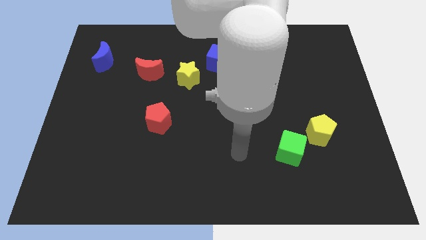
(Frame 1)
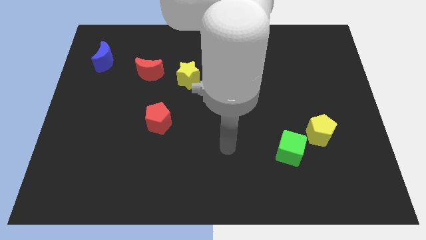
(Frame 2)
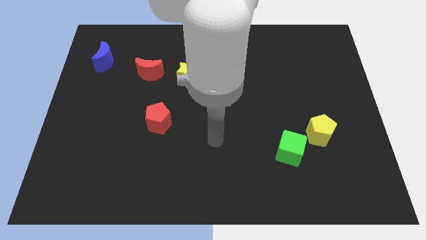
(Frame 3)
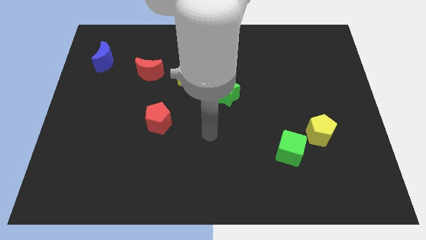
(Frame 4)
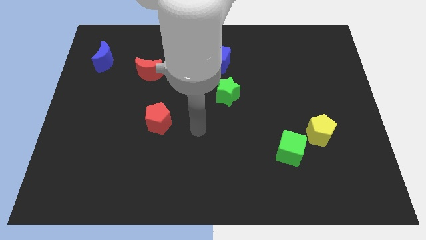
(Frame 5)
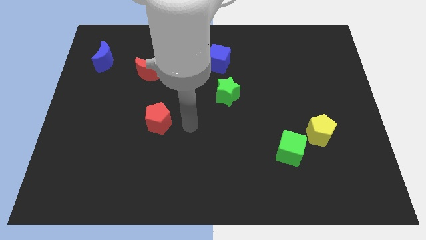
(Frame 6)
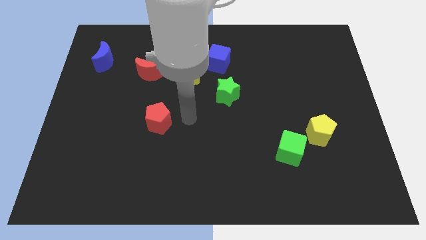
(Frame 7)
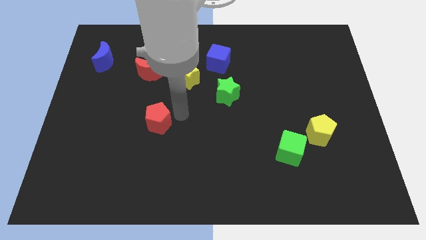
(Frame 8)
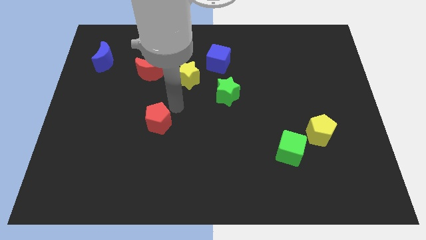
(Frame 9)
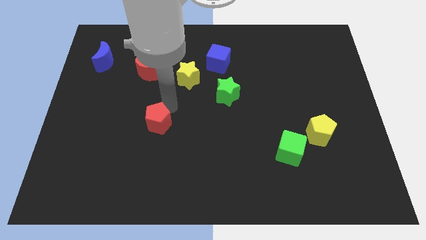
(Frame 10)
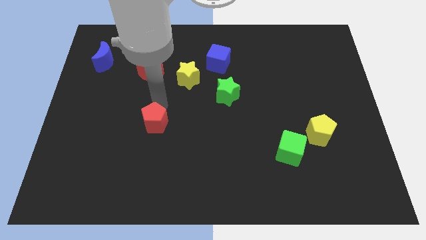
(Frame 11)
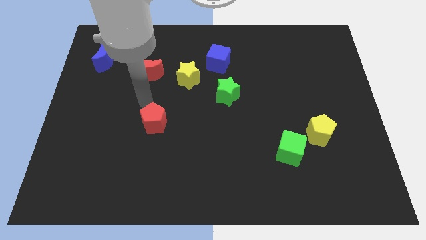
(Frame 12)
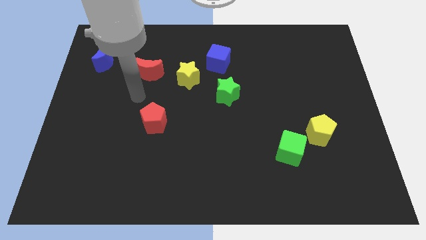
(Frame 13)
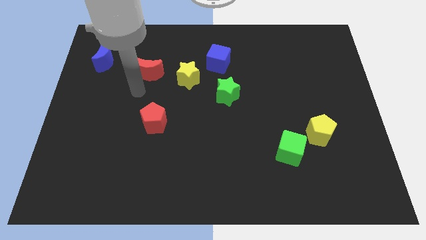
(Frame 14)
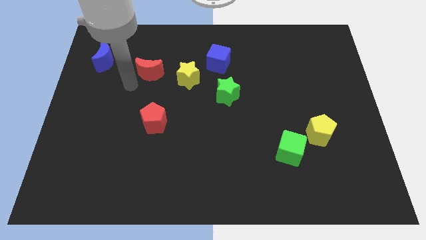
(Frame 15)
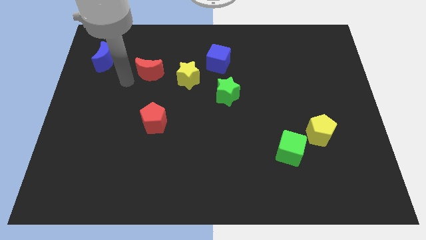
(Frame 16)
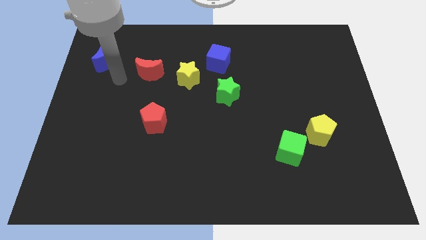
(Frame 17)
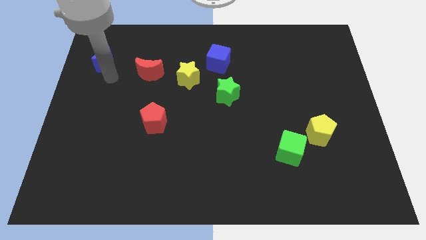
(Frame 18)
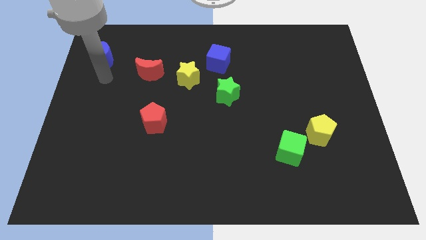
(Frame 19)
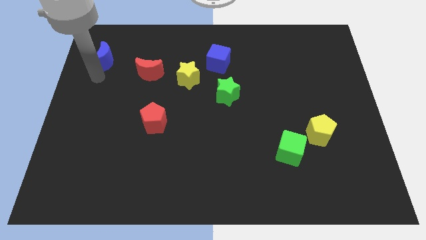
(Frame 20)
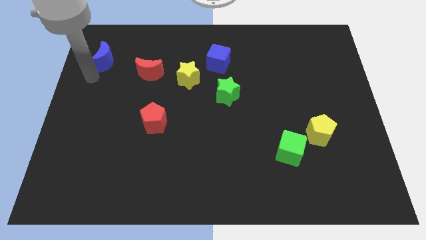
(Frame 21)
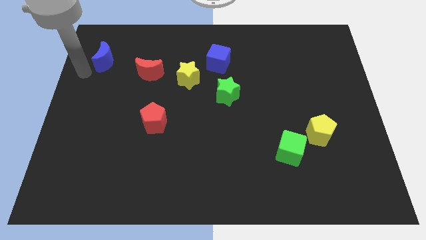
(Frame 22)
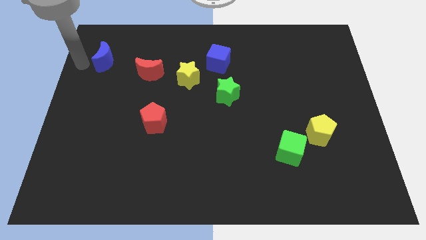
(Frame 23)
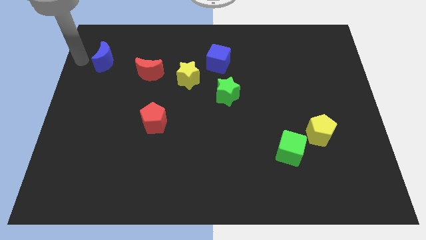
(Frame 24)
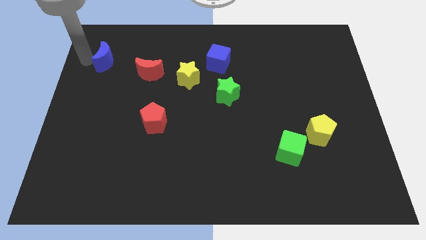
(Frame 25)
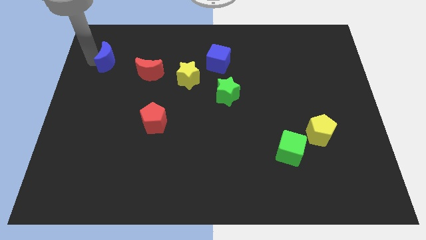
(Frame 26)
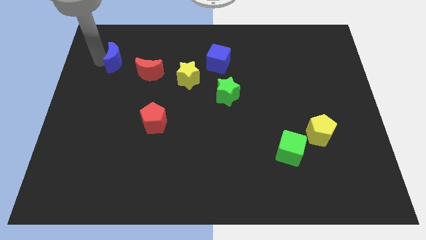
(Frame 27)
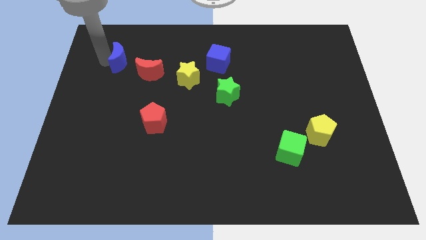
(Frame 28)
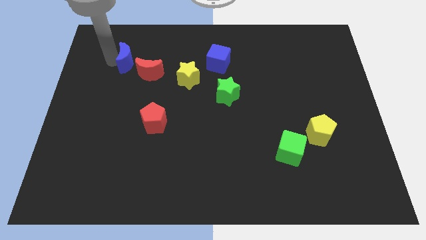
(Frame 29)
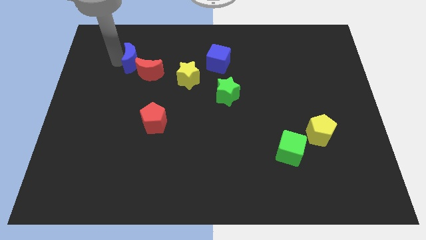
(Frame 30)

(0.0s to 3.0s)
slightly slide the blue moon to the right

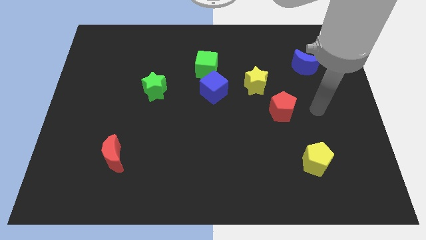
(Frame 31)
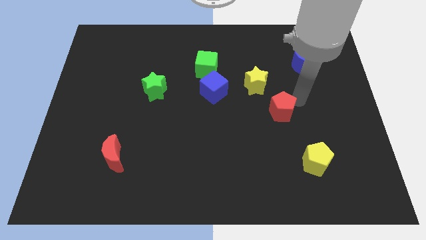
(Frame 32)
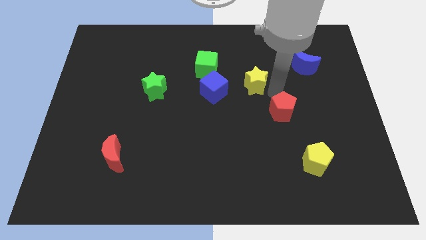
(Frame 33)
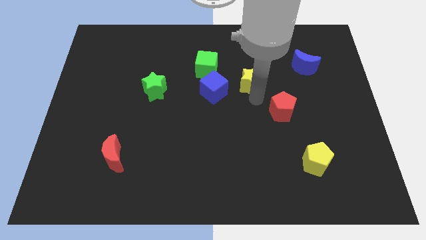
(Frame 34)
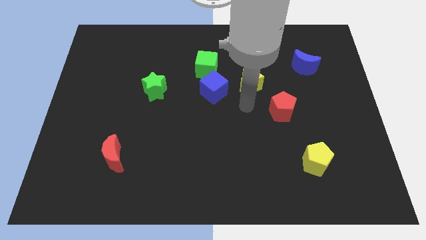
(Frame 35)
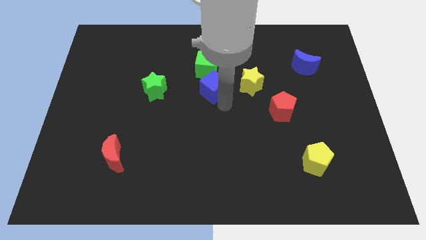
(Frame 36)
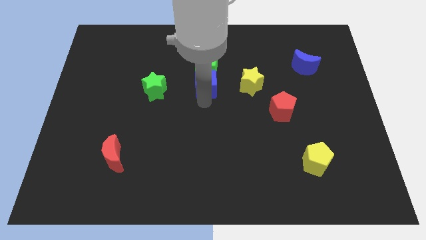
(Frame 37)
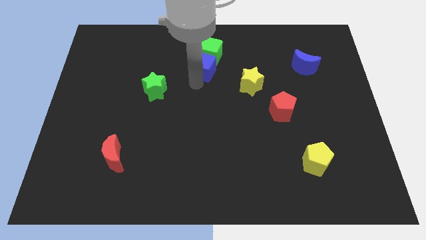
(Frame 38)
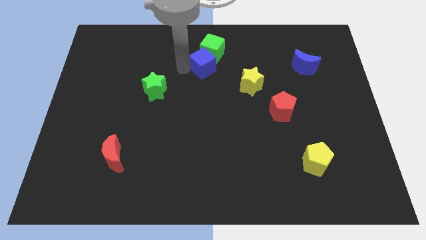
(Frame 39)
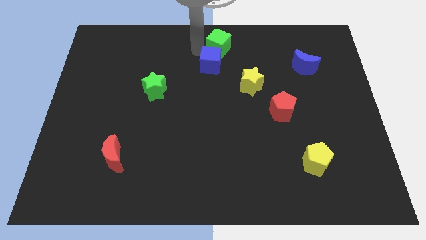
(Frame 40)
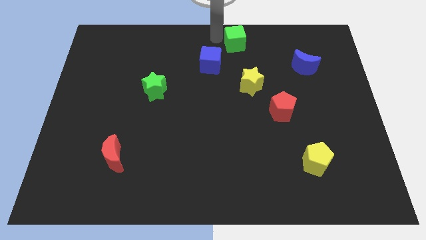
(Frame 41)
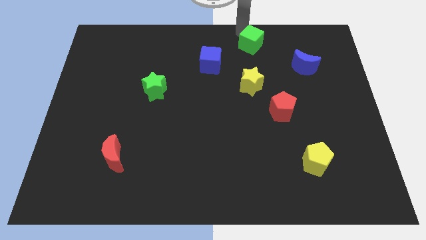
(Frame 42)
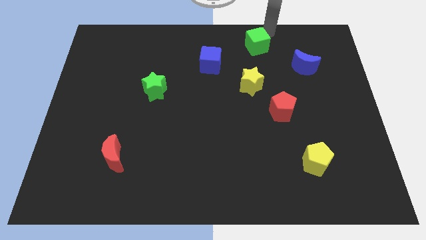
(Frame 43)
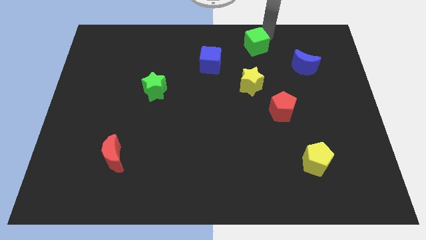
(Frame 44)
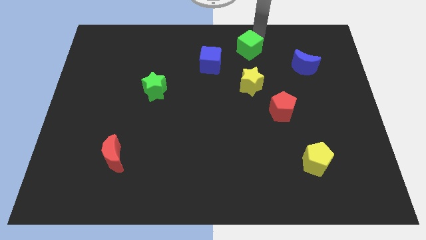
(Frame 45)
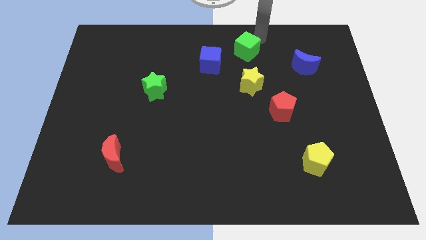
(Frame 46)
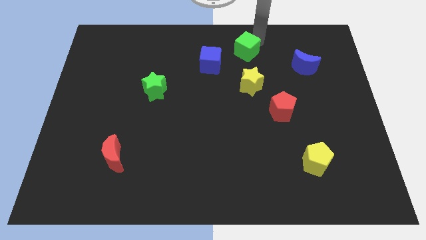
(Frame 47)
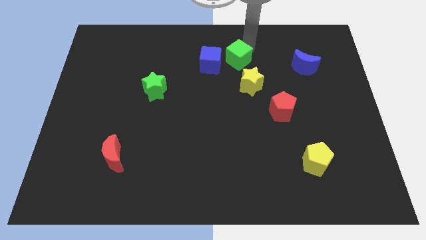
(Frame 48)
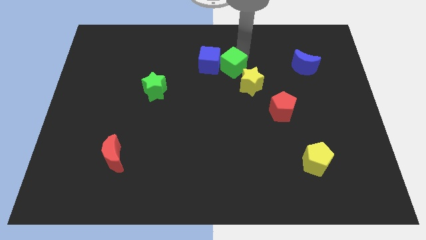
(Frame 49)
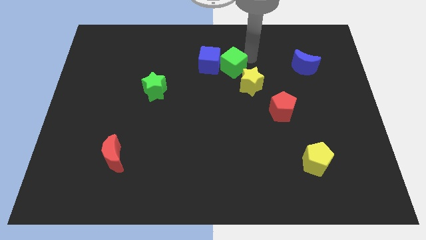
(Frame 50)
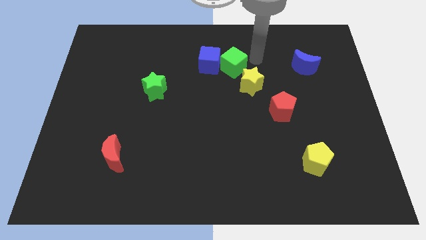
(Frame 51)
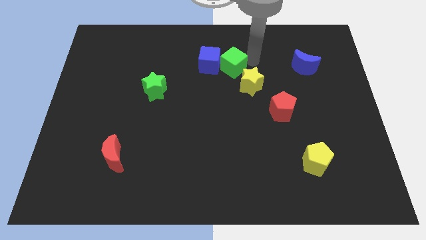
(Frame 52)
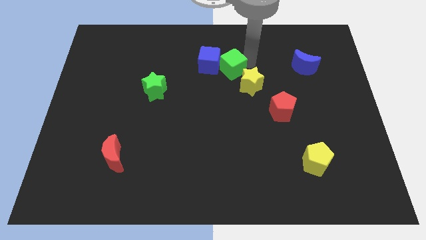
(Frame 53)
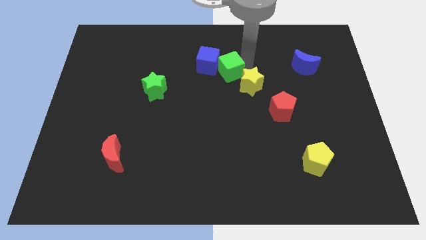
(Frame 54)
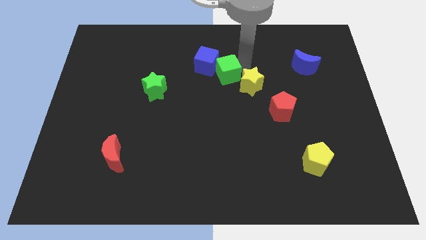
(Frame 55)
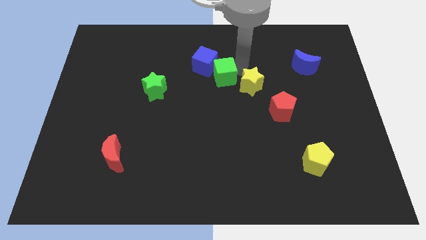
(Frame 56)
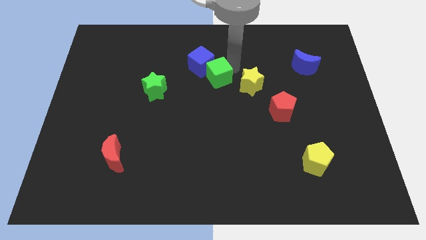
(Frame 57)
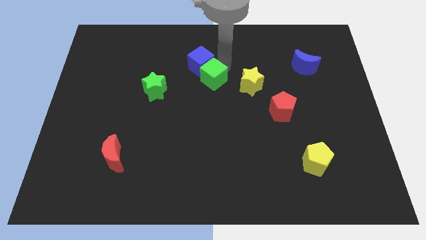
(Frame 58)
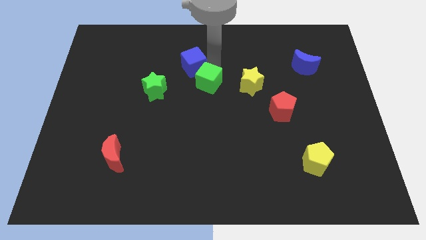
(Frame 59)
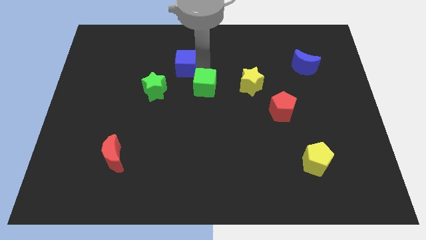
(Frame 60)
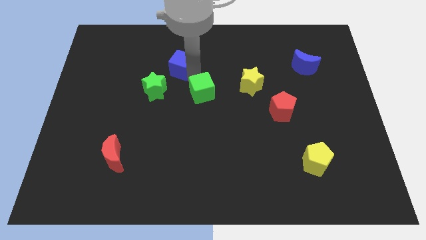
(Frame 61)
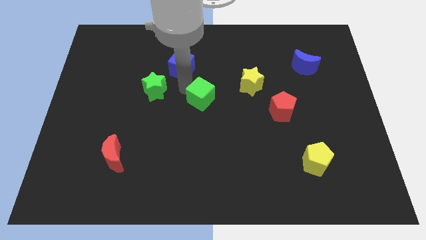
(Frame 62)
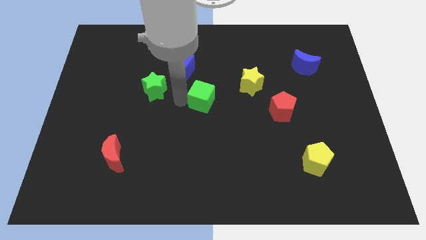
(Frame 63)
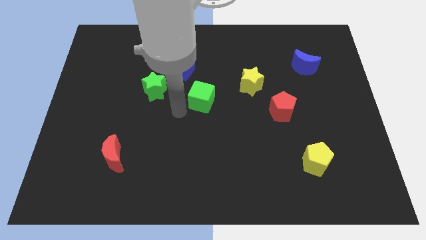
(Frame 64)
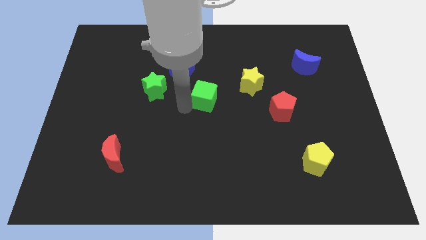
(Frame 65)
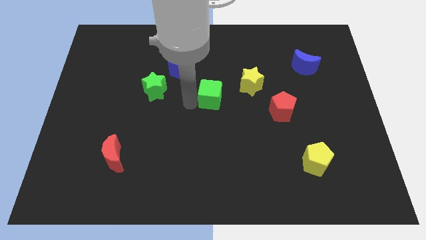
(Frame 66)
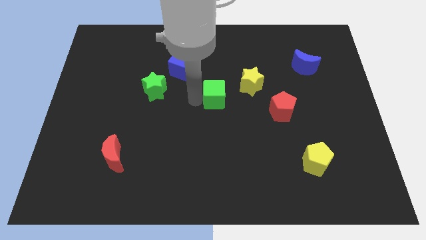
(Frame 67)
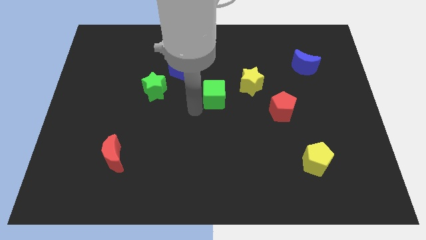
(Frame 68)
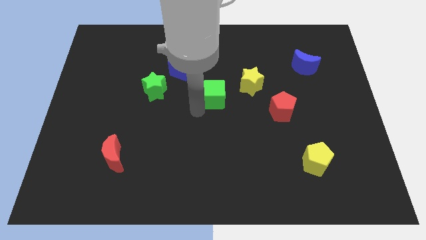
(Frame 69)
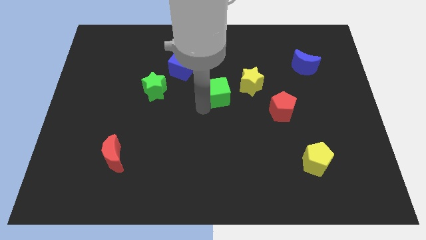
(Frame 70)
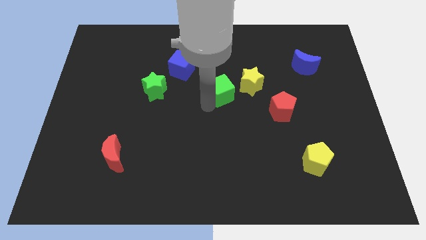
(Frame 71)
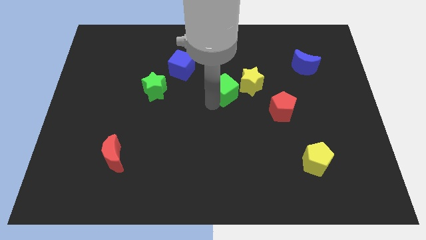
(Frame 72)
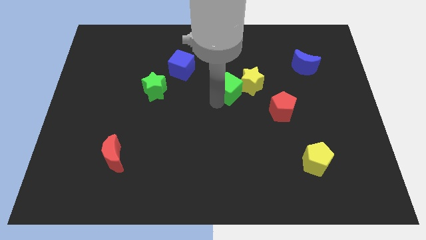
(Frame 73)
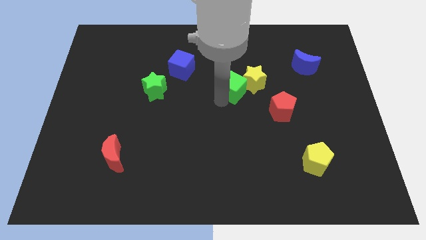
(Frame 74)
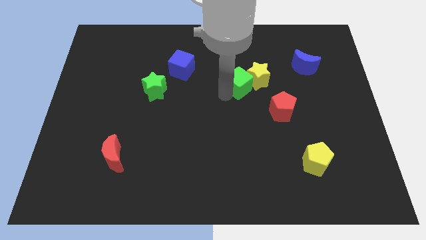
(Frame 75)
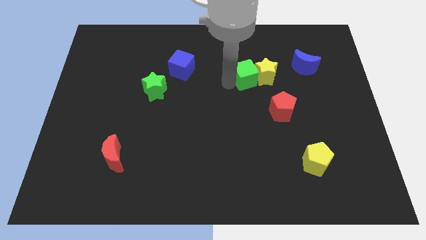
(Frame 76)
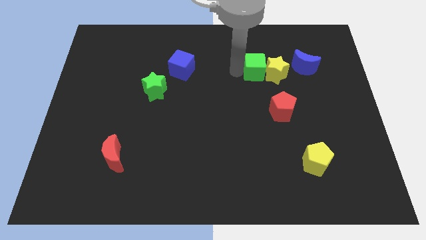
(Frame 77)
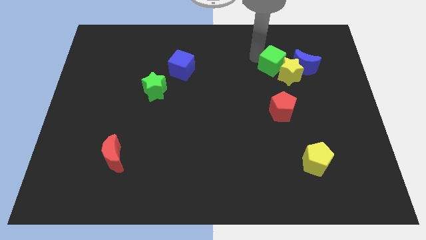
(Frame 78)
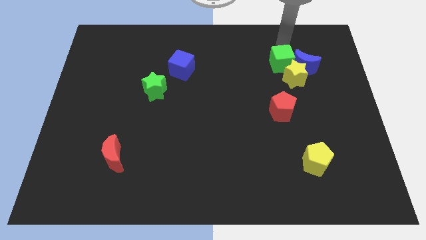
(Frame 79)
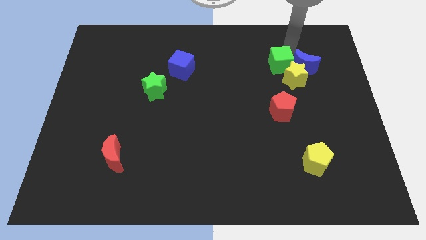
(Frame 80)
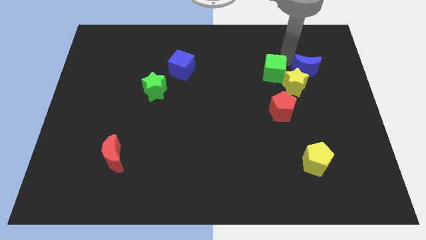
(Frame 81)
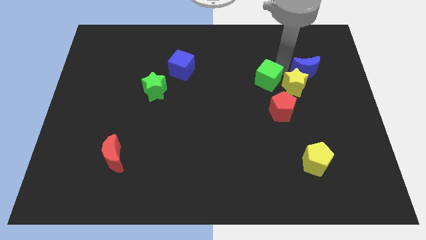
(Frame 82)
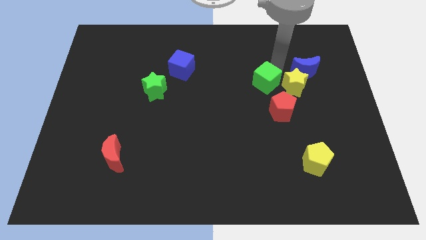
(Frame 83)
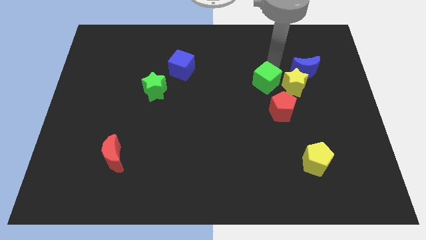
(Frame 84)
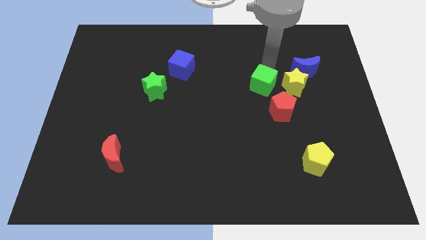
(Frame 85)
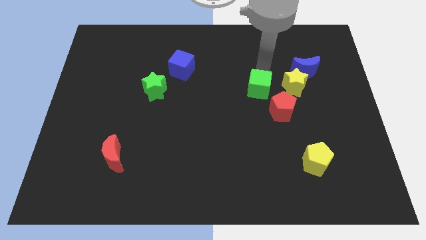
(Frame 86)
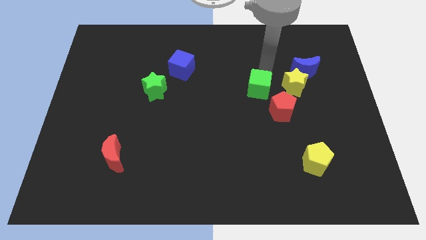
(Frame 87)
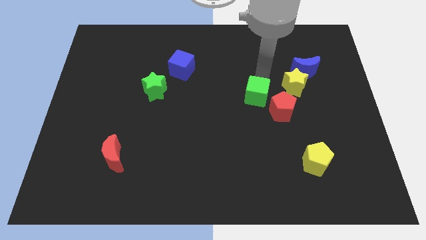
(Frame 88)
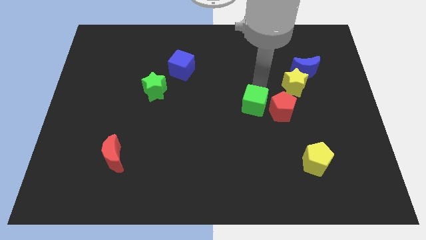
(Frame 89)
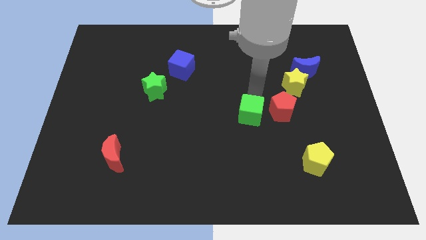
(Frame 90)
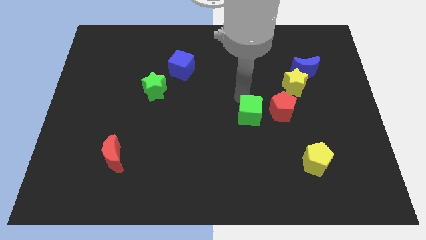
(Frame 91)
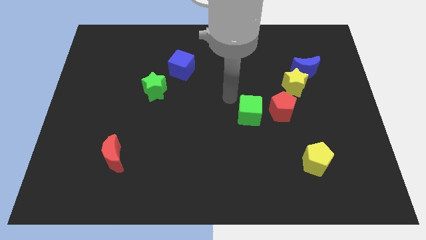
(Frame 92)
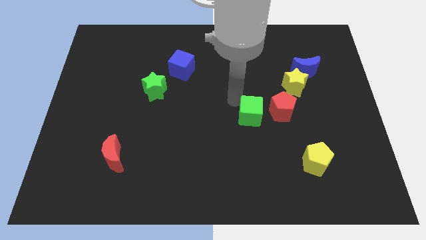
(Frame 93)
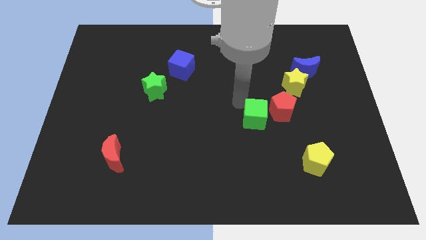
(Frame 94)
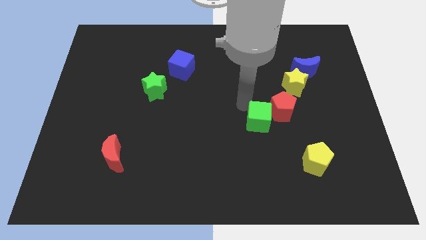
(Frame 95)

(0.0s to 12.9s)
push the green cube diagonally downwards and right
